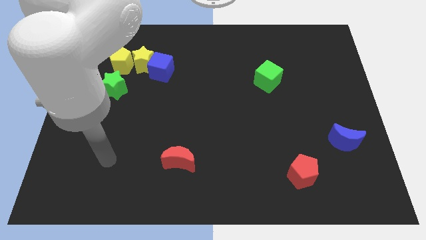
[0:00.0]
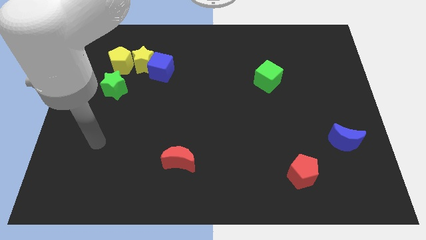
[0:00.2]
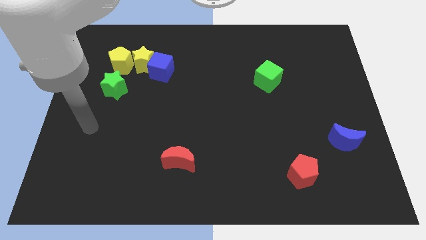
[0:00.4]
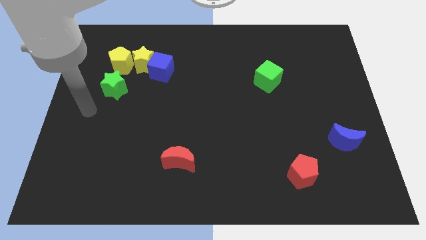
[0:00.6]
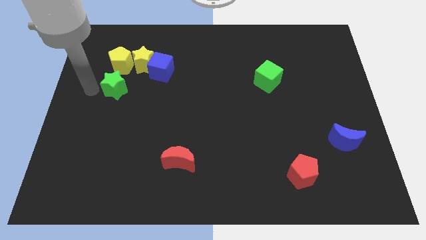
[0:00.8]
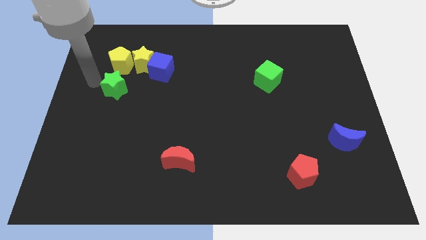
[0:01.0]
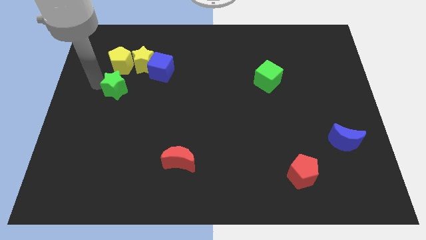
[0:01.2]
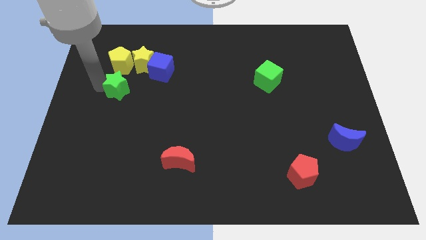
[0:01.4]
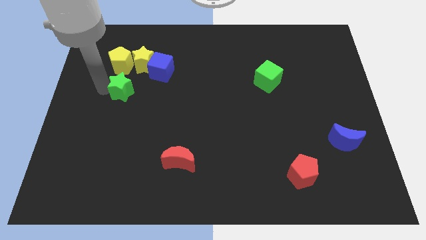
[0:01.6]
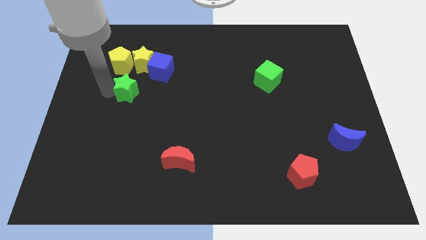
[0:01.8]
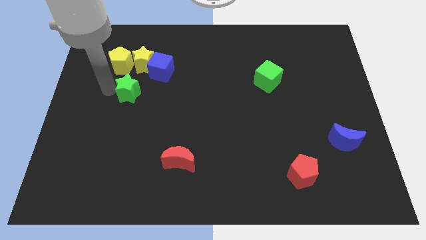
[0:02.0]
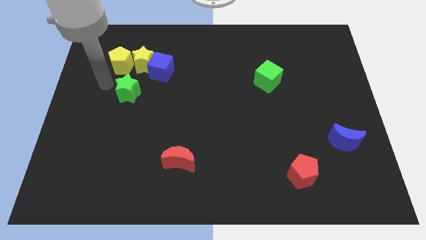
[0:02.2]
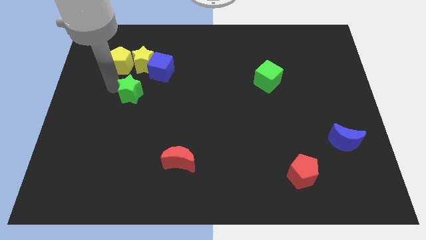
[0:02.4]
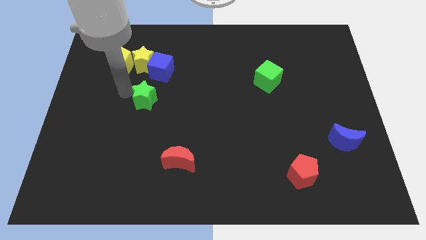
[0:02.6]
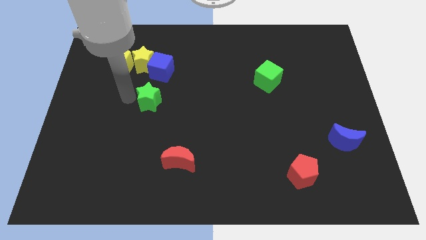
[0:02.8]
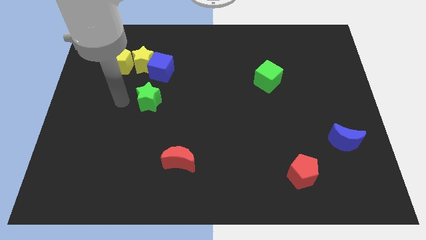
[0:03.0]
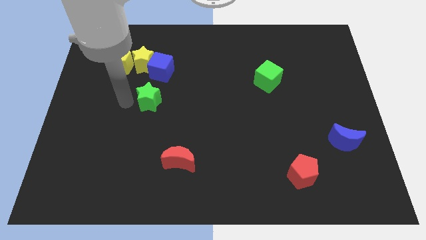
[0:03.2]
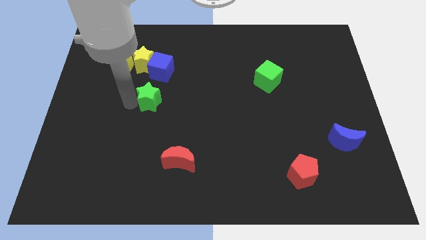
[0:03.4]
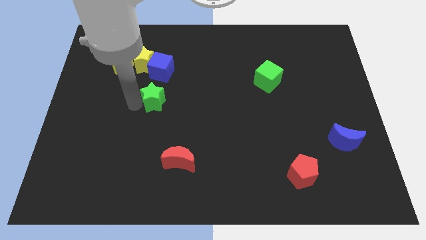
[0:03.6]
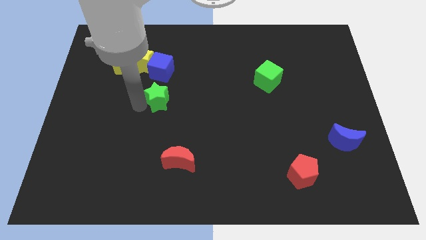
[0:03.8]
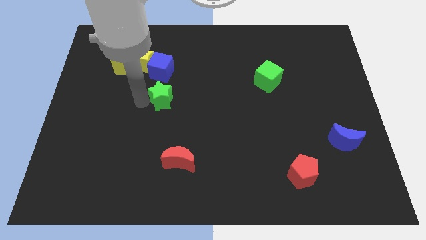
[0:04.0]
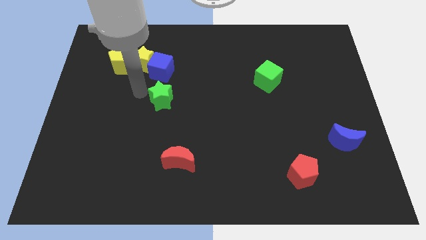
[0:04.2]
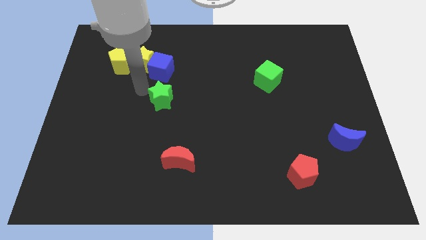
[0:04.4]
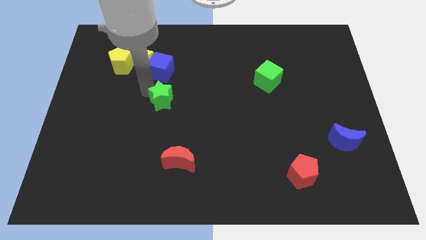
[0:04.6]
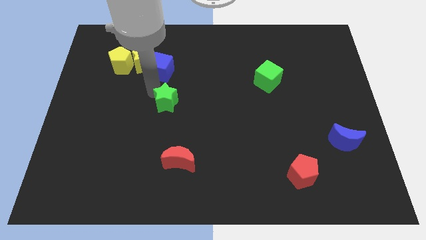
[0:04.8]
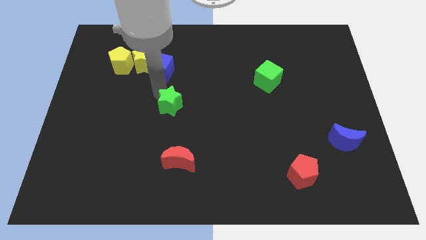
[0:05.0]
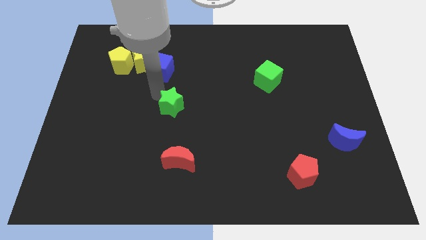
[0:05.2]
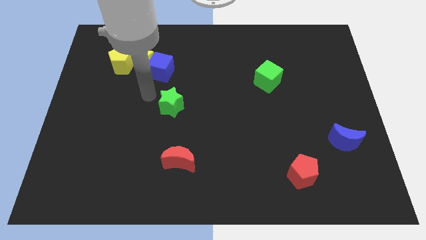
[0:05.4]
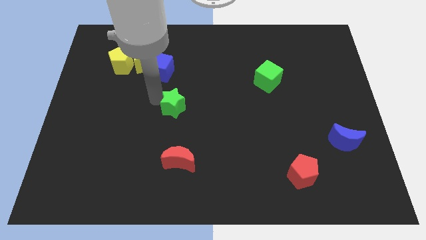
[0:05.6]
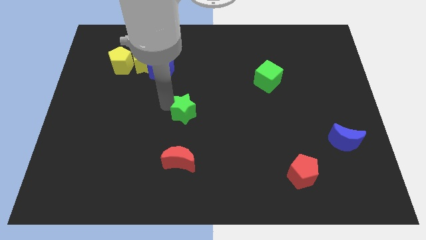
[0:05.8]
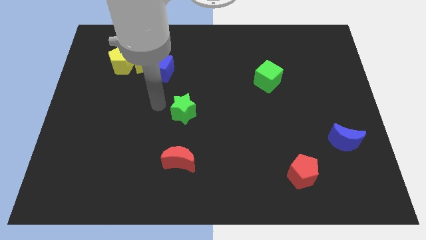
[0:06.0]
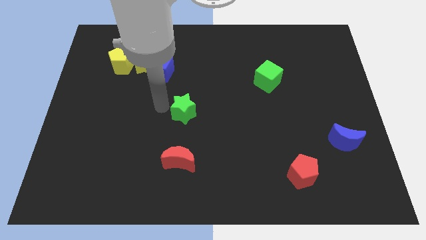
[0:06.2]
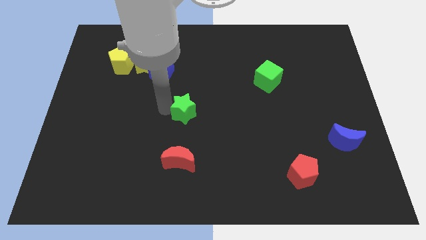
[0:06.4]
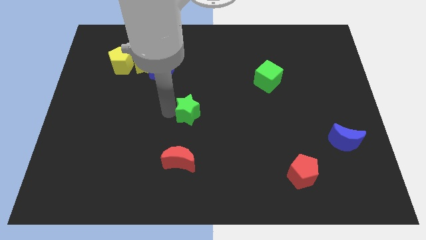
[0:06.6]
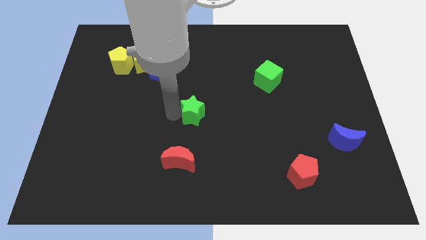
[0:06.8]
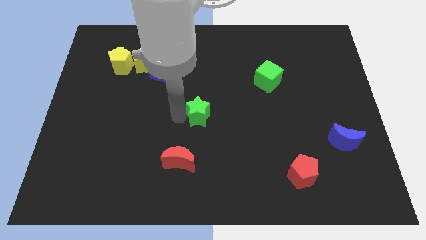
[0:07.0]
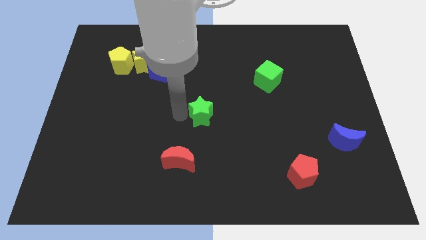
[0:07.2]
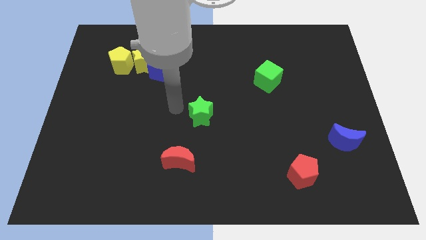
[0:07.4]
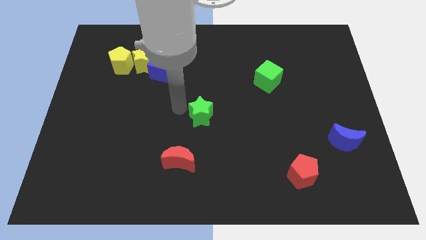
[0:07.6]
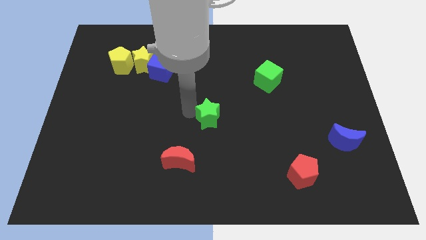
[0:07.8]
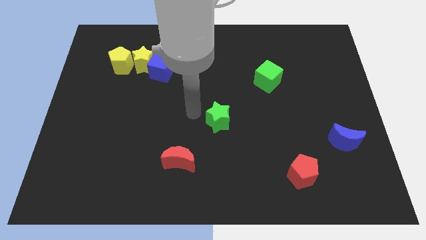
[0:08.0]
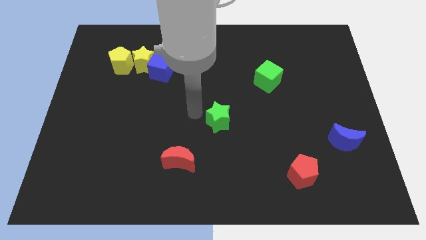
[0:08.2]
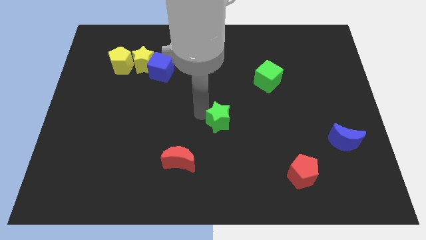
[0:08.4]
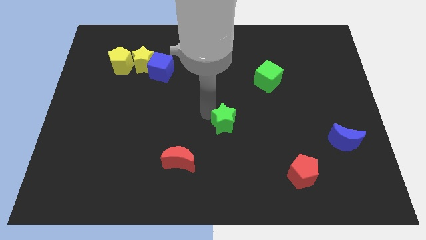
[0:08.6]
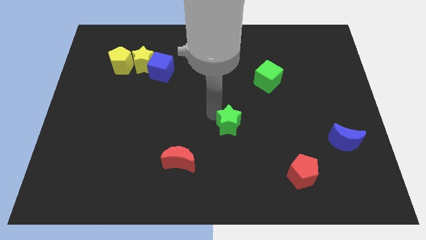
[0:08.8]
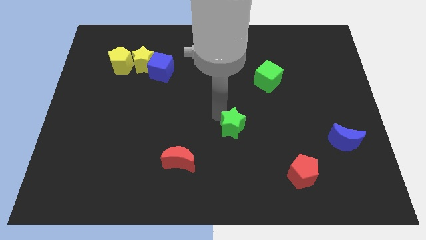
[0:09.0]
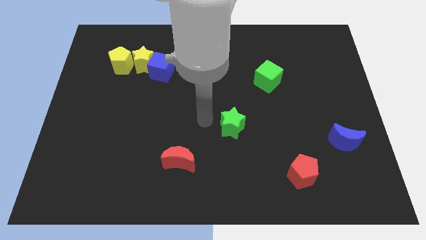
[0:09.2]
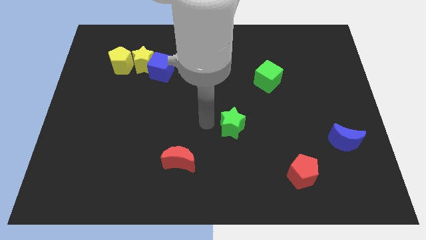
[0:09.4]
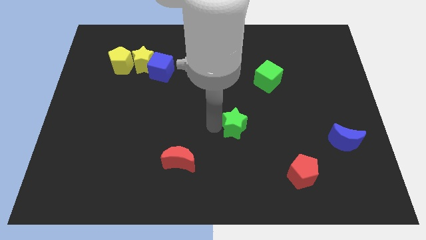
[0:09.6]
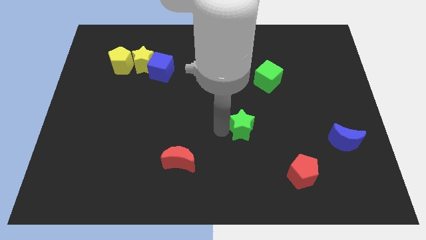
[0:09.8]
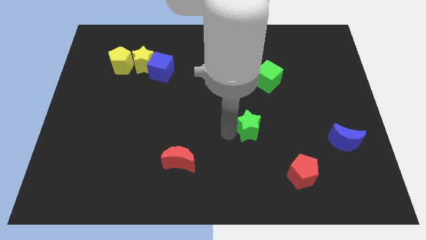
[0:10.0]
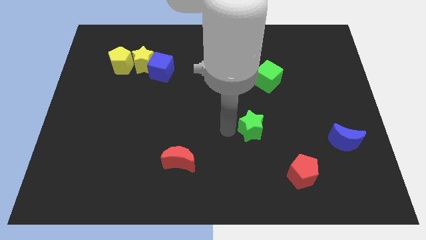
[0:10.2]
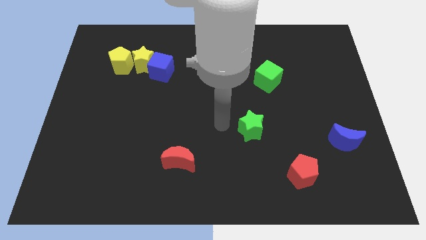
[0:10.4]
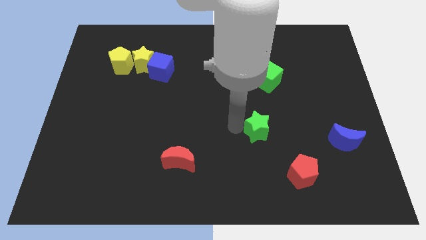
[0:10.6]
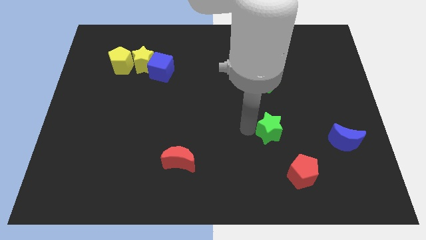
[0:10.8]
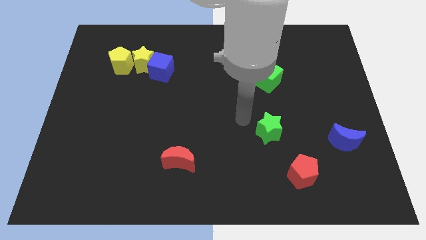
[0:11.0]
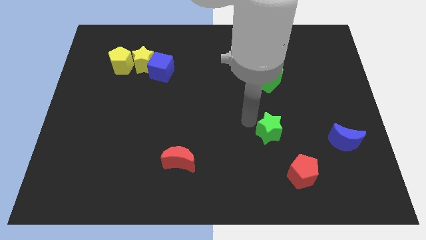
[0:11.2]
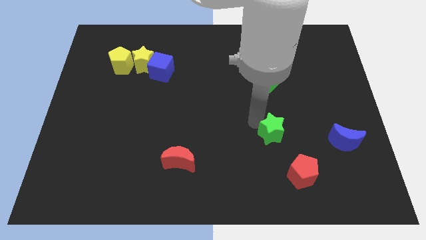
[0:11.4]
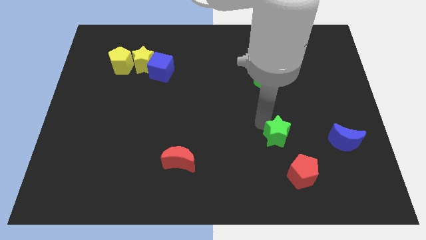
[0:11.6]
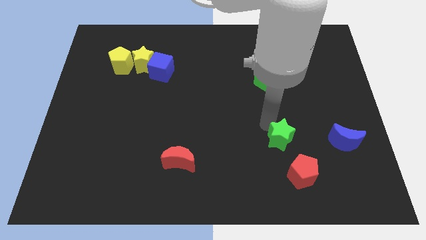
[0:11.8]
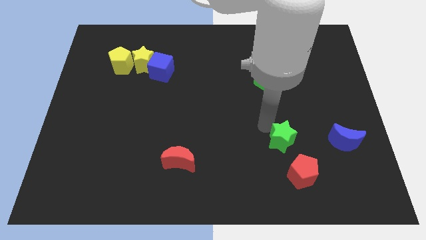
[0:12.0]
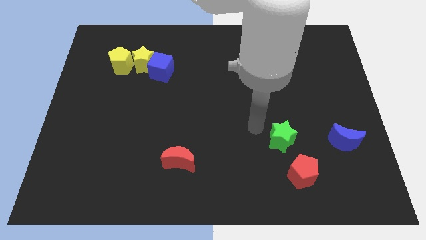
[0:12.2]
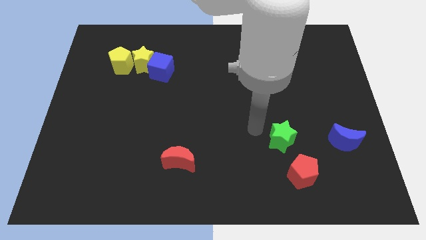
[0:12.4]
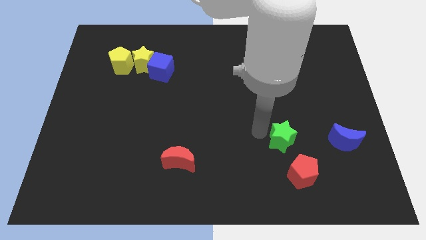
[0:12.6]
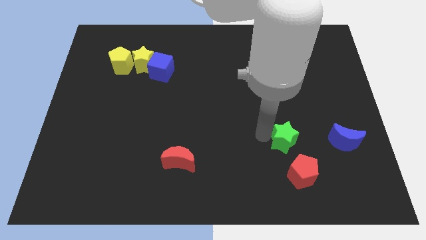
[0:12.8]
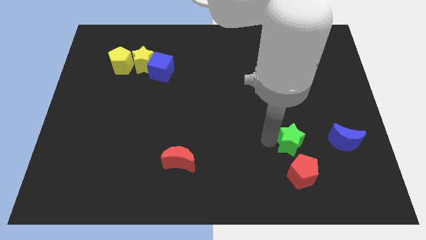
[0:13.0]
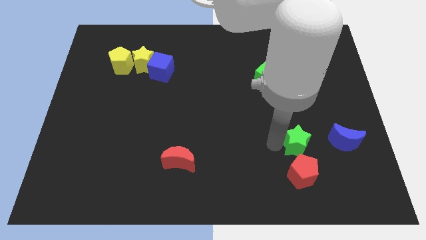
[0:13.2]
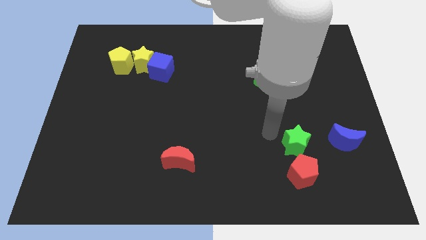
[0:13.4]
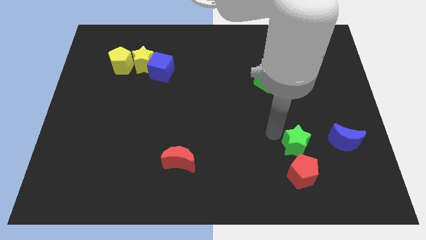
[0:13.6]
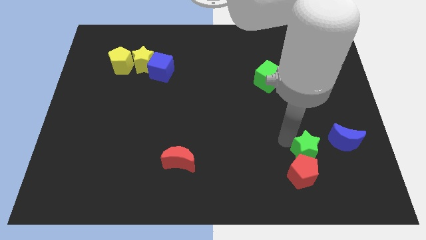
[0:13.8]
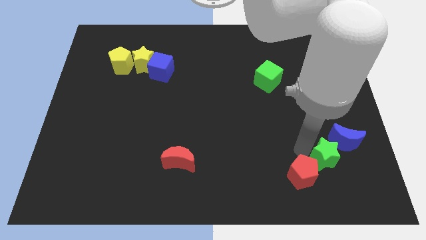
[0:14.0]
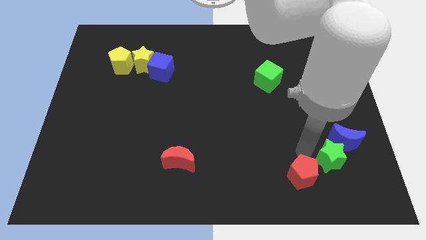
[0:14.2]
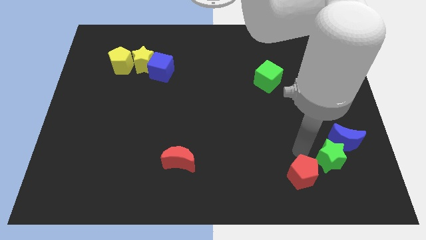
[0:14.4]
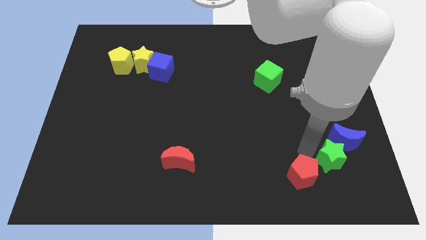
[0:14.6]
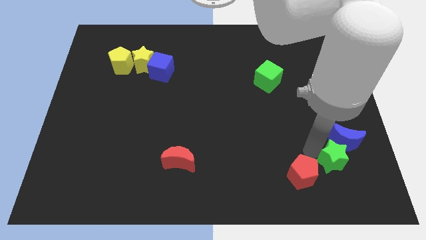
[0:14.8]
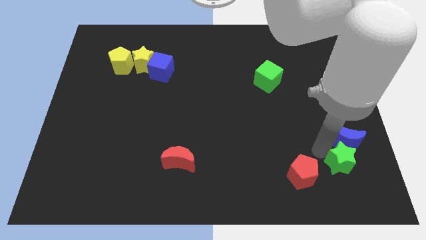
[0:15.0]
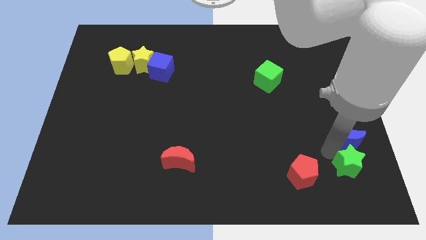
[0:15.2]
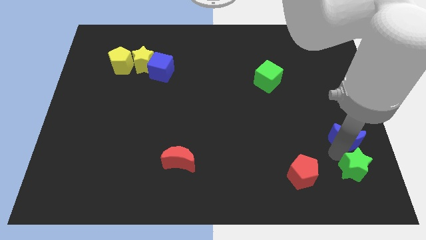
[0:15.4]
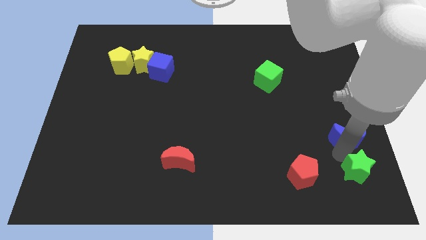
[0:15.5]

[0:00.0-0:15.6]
slide the green star to the bottom right
